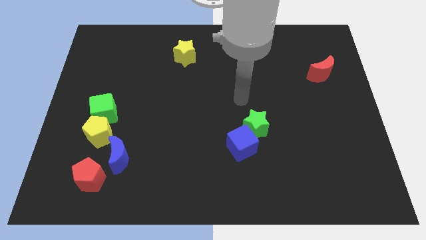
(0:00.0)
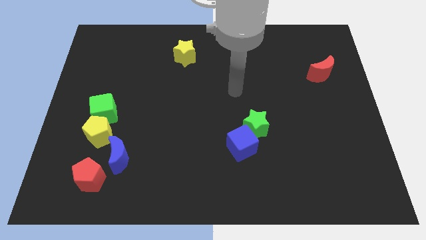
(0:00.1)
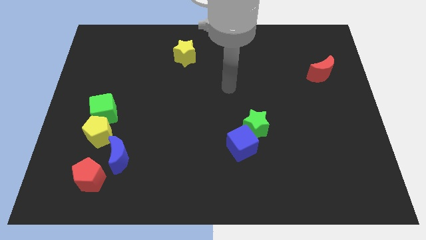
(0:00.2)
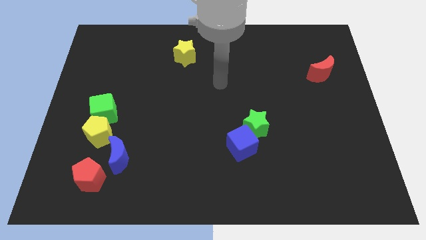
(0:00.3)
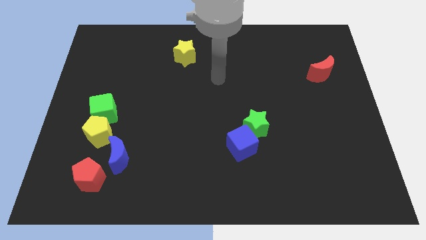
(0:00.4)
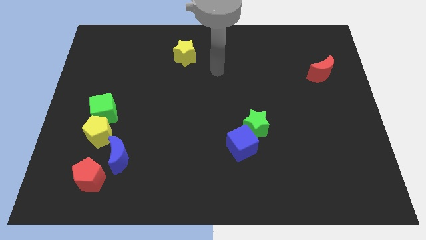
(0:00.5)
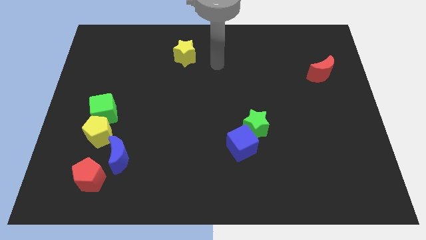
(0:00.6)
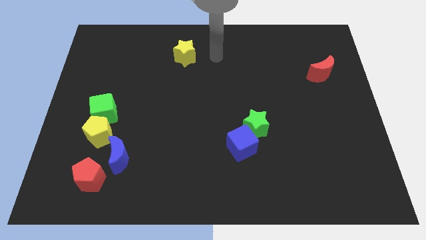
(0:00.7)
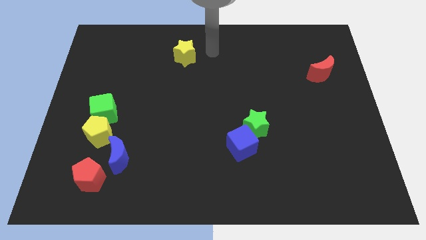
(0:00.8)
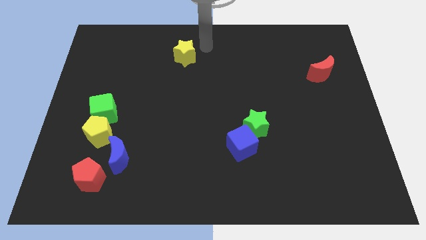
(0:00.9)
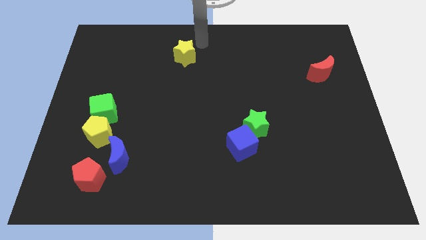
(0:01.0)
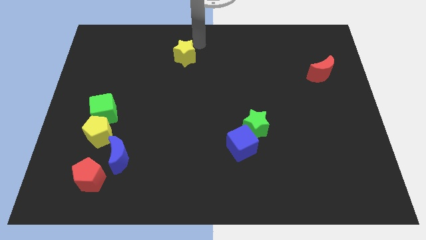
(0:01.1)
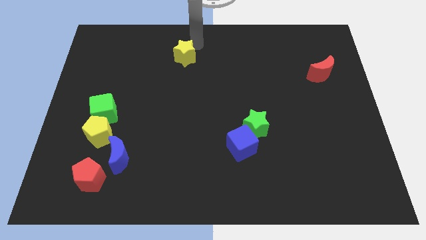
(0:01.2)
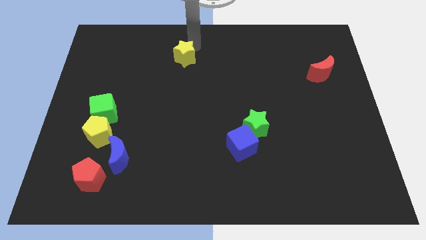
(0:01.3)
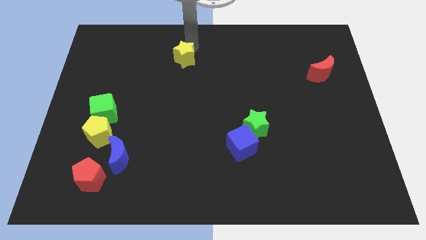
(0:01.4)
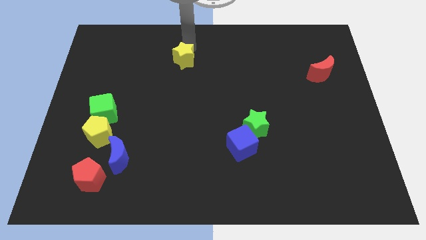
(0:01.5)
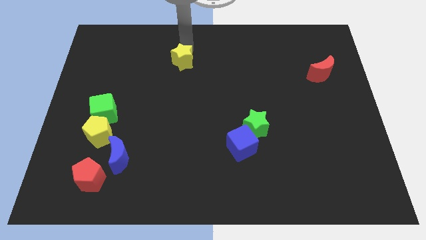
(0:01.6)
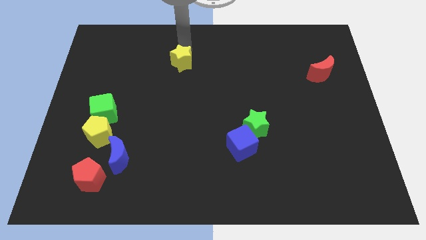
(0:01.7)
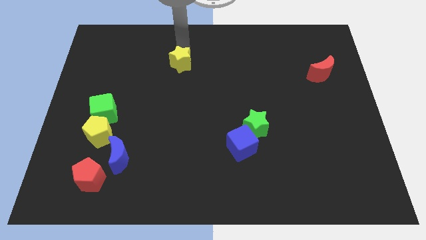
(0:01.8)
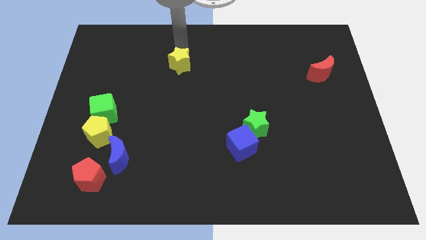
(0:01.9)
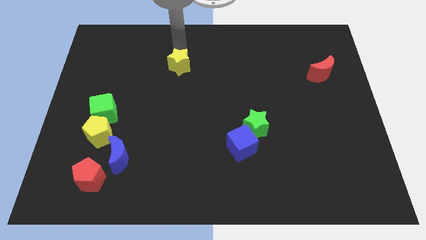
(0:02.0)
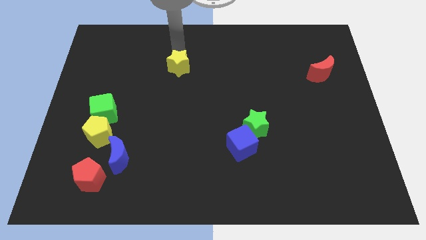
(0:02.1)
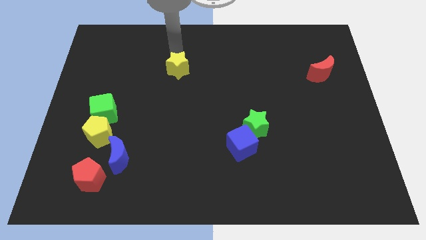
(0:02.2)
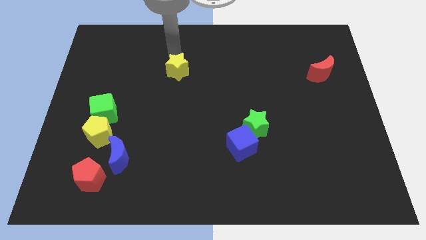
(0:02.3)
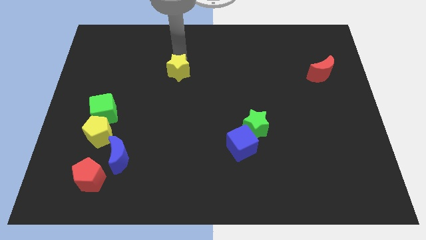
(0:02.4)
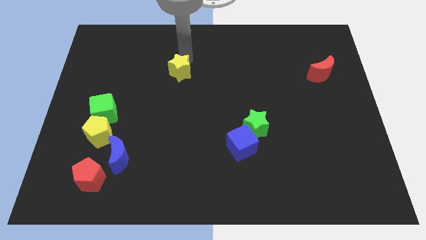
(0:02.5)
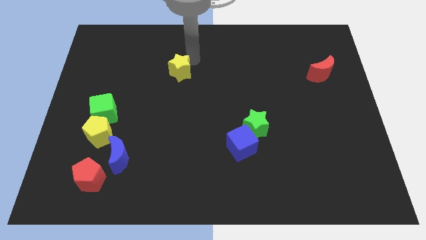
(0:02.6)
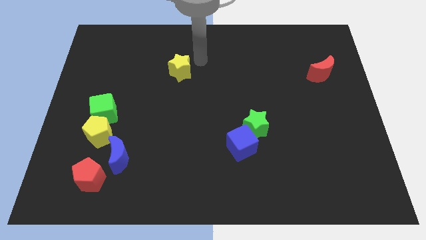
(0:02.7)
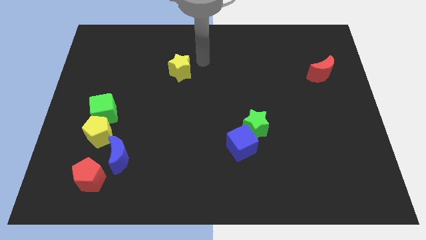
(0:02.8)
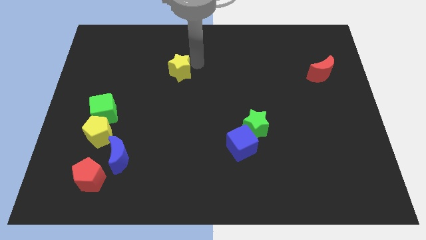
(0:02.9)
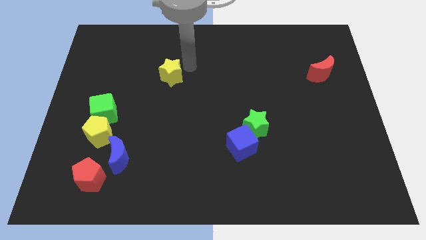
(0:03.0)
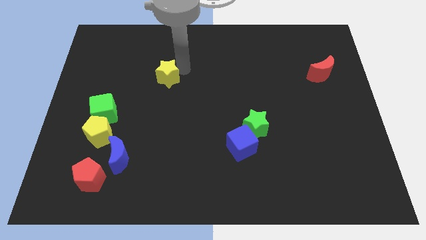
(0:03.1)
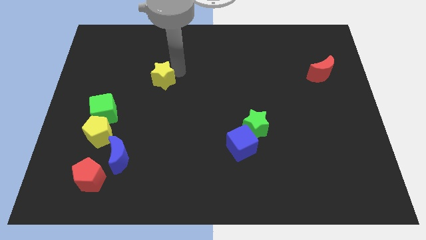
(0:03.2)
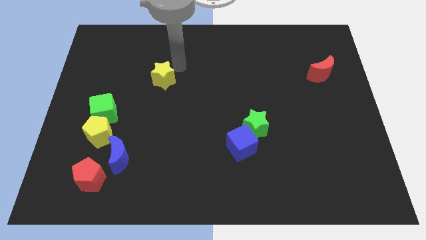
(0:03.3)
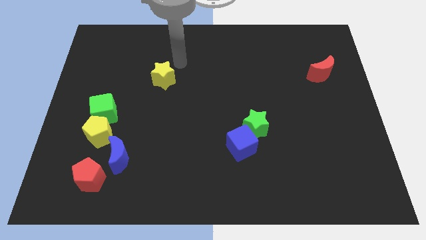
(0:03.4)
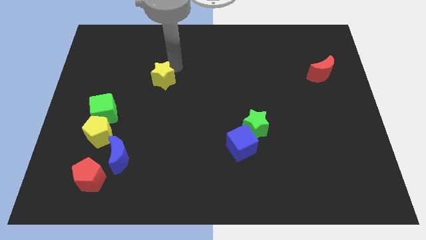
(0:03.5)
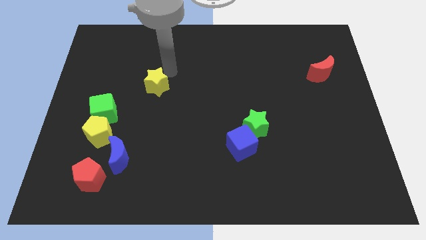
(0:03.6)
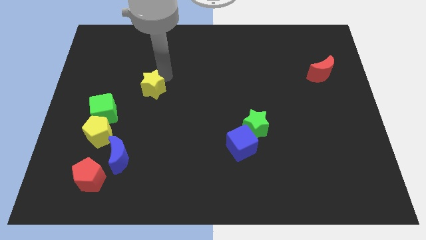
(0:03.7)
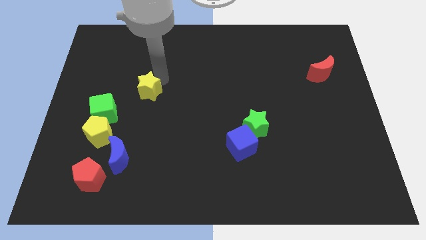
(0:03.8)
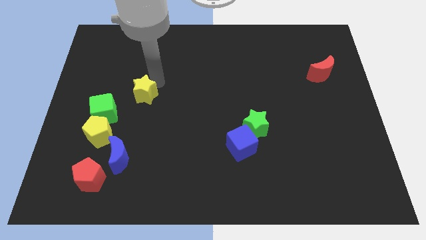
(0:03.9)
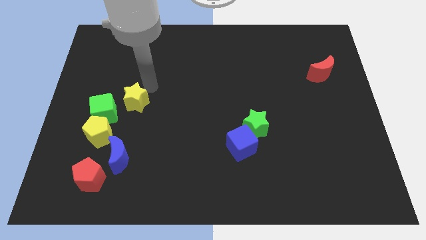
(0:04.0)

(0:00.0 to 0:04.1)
put the yellow star to the top side of the blue moon

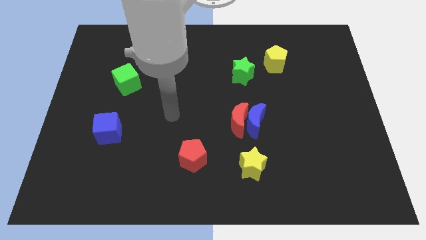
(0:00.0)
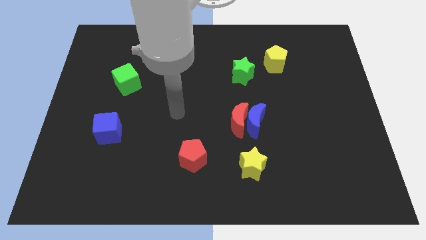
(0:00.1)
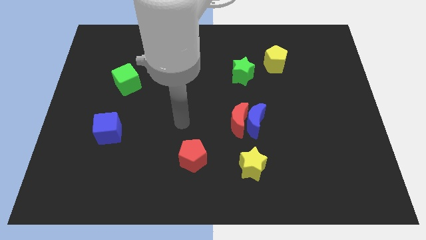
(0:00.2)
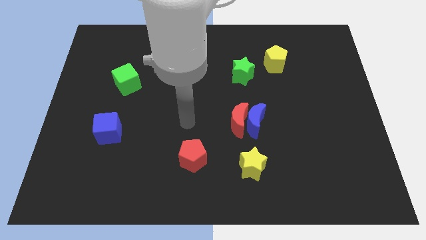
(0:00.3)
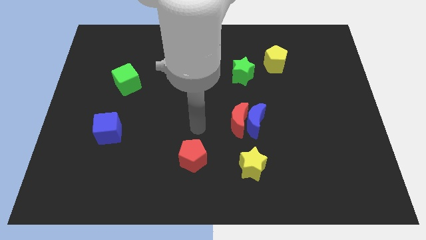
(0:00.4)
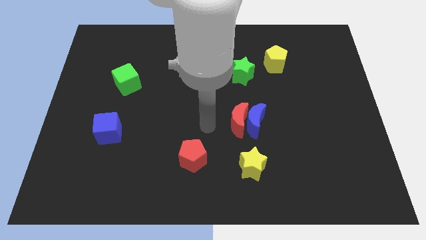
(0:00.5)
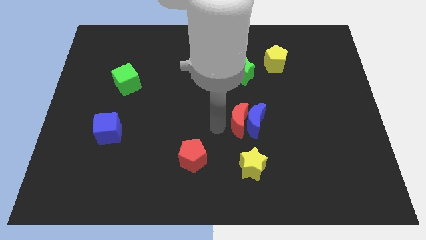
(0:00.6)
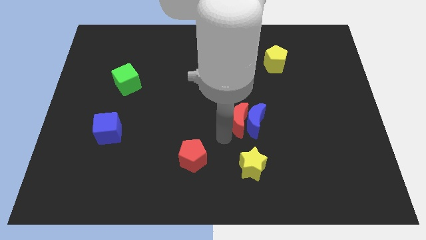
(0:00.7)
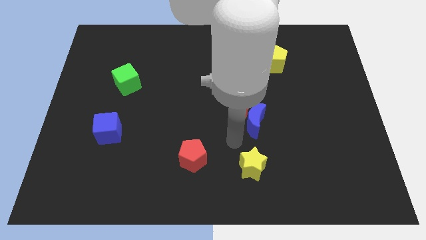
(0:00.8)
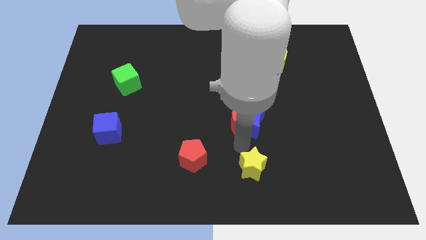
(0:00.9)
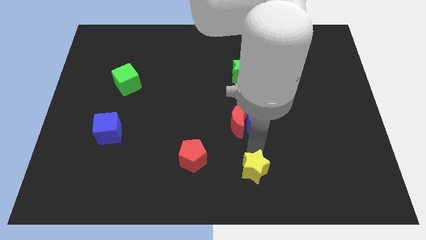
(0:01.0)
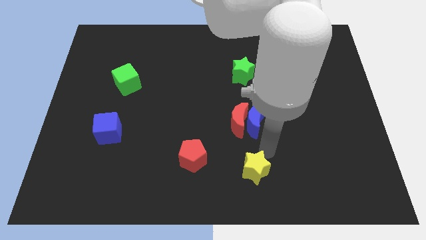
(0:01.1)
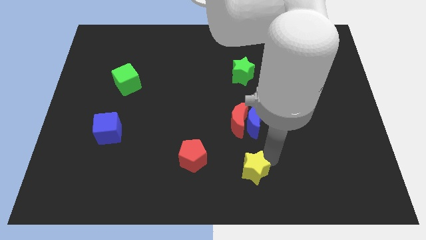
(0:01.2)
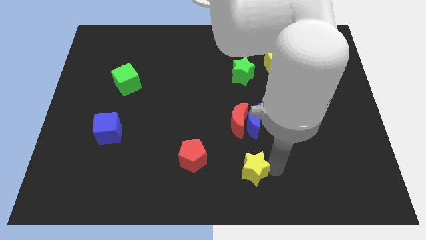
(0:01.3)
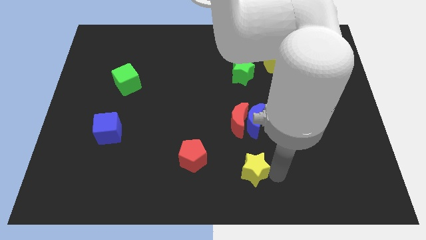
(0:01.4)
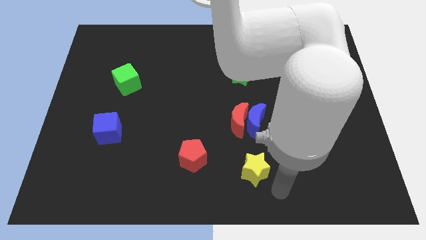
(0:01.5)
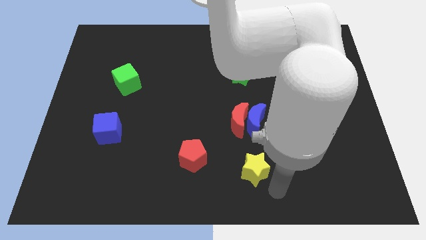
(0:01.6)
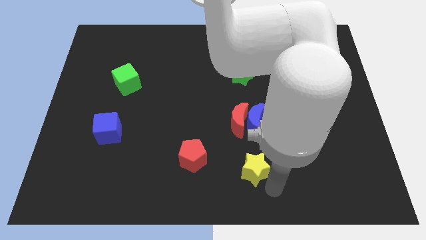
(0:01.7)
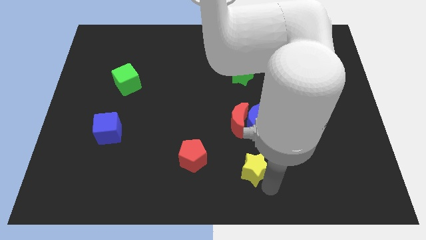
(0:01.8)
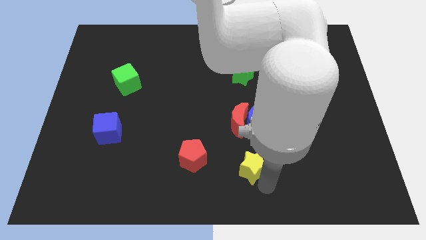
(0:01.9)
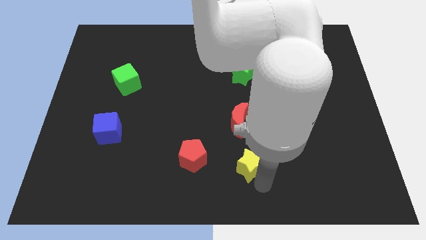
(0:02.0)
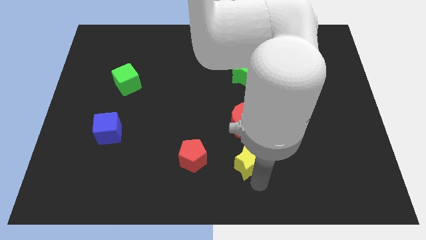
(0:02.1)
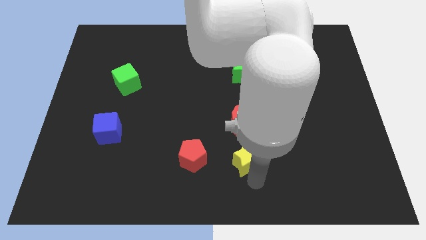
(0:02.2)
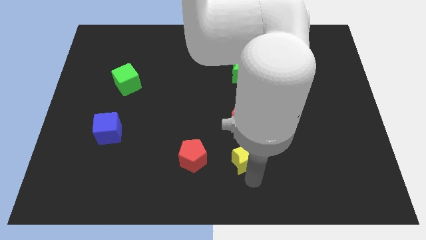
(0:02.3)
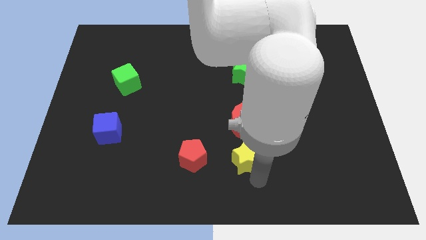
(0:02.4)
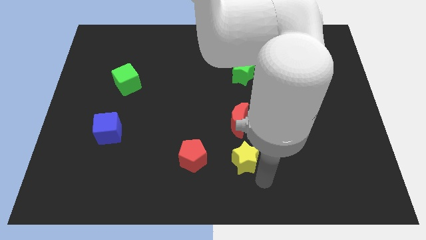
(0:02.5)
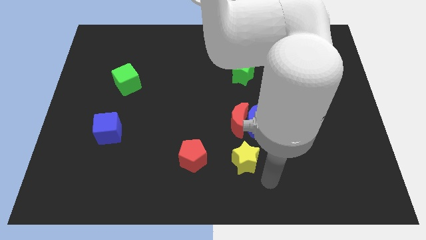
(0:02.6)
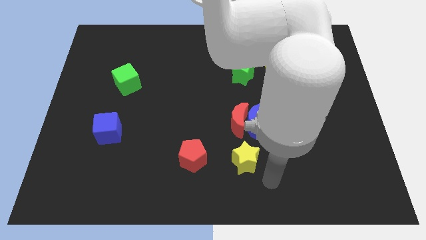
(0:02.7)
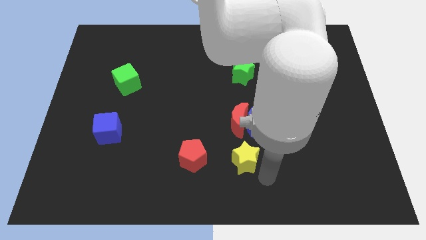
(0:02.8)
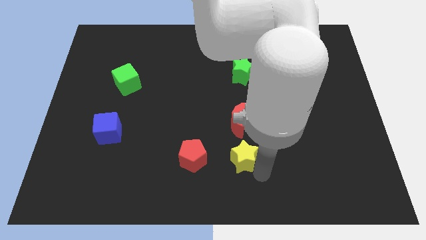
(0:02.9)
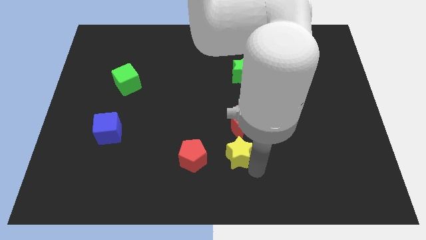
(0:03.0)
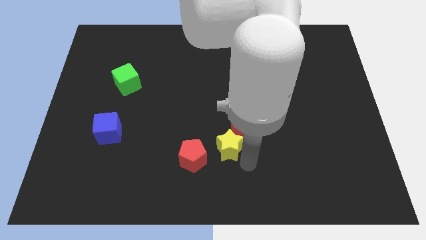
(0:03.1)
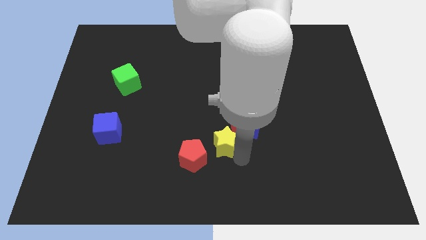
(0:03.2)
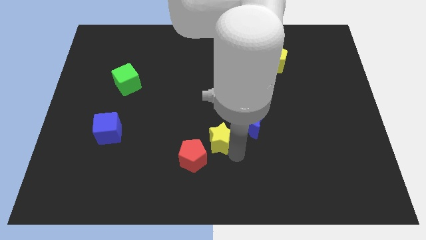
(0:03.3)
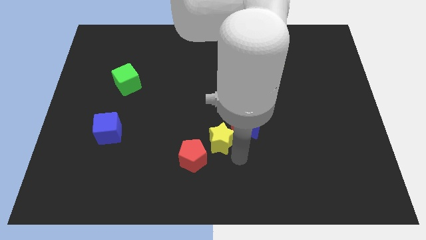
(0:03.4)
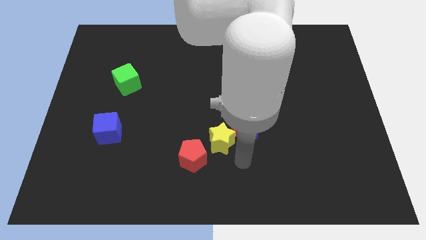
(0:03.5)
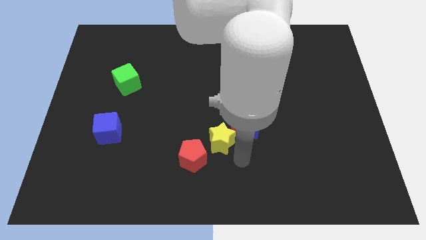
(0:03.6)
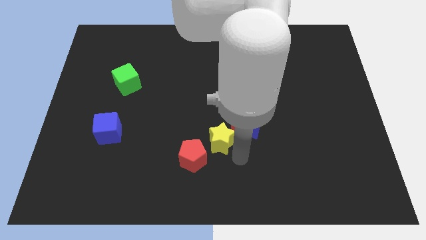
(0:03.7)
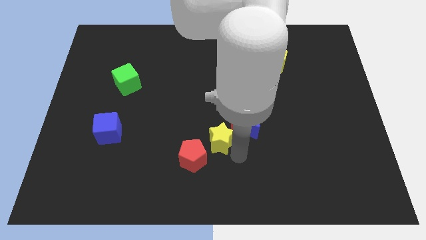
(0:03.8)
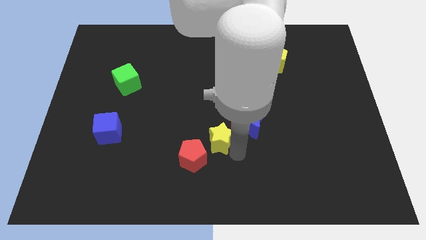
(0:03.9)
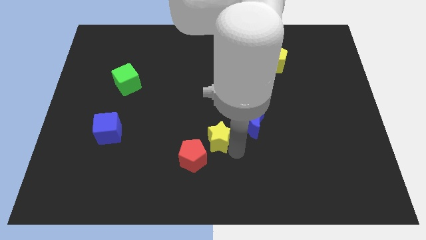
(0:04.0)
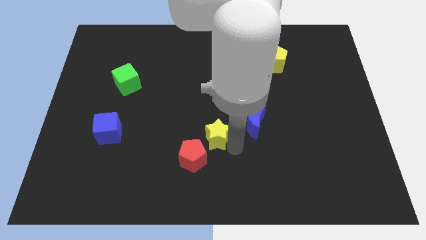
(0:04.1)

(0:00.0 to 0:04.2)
move the yellow star left of the red moon
